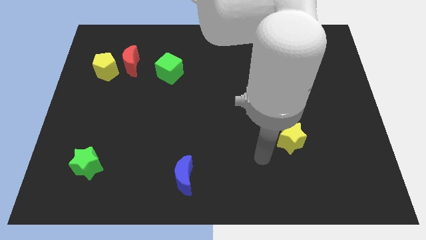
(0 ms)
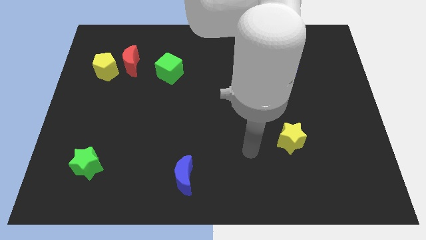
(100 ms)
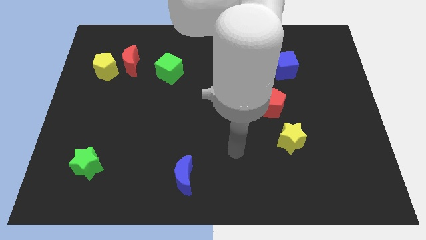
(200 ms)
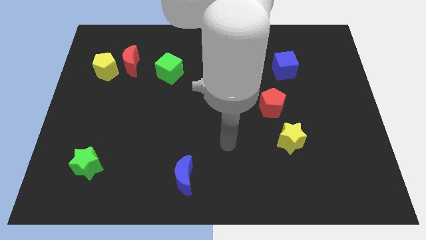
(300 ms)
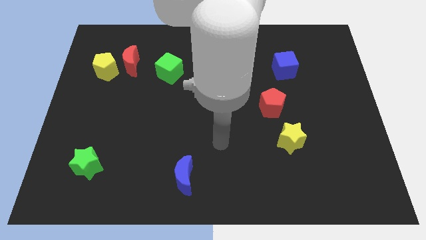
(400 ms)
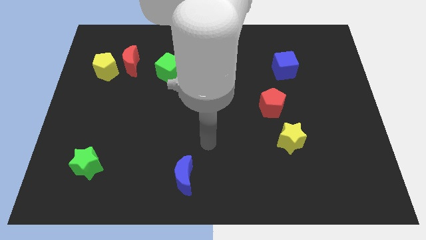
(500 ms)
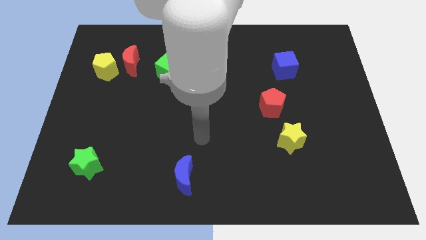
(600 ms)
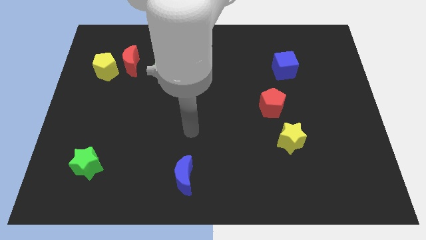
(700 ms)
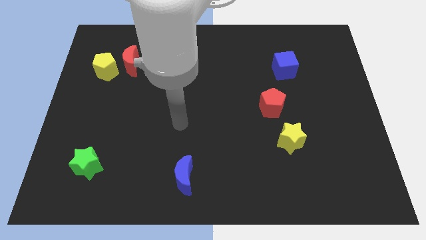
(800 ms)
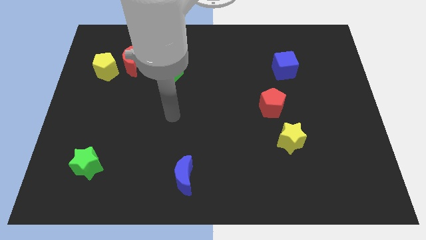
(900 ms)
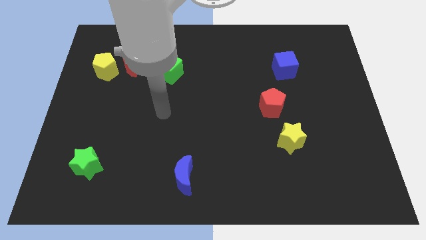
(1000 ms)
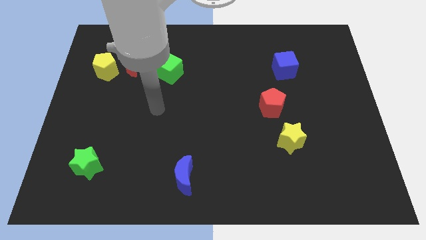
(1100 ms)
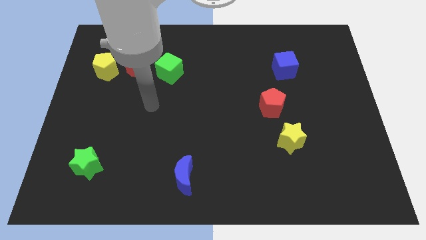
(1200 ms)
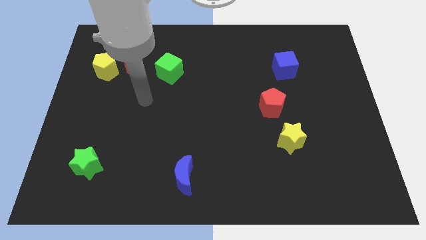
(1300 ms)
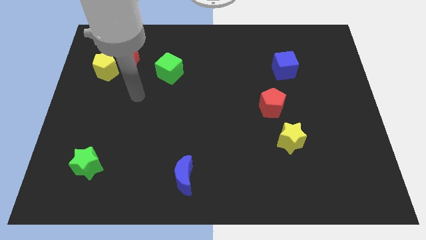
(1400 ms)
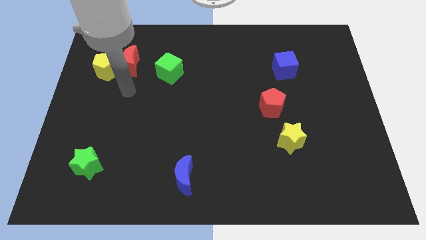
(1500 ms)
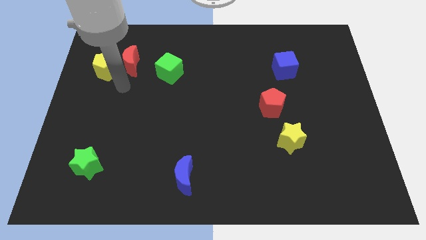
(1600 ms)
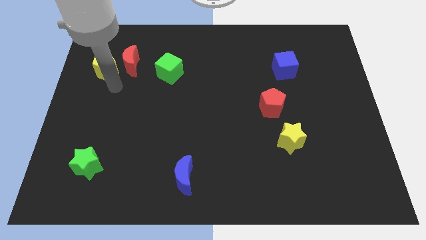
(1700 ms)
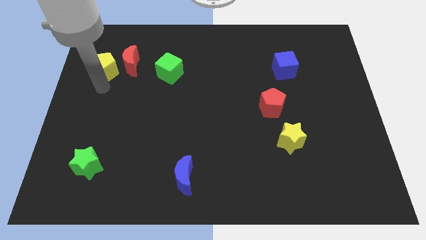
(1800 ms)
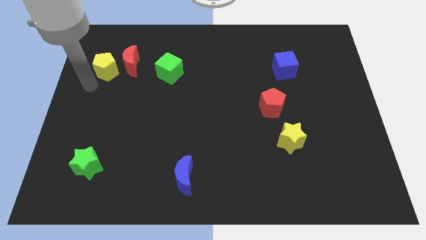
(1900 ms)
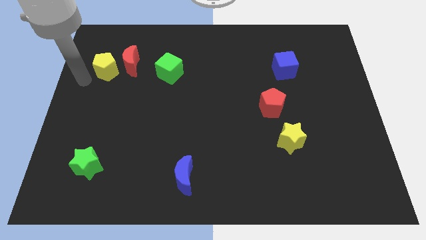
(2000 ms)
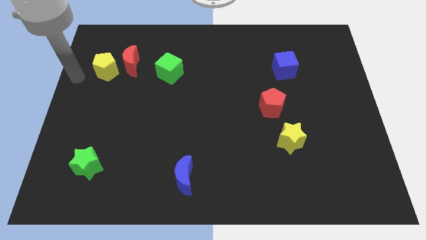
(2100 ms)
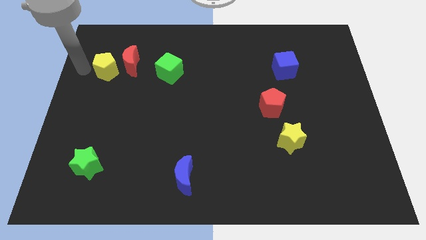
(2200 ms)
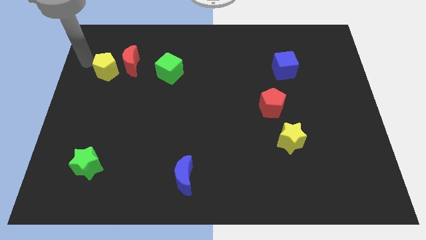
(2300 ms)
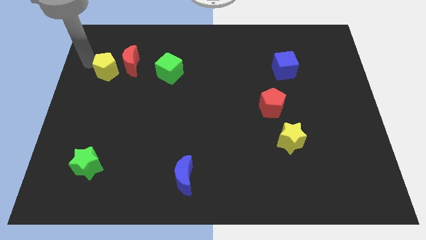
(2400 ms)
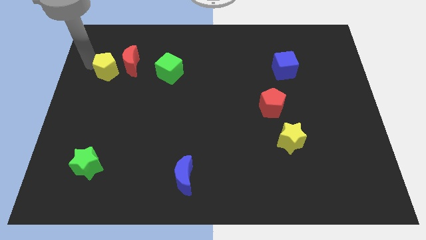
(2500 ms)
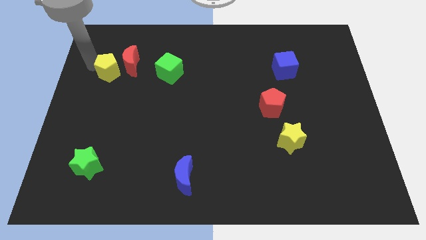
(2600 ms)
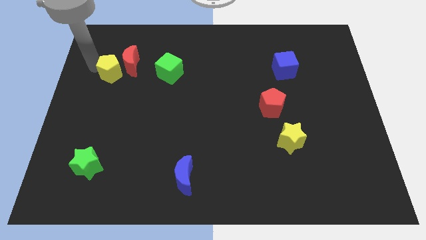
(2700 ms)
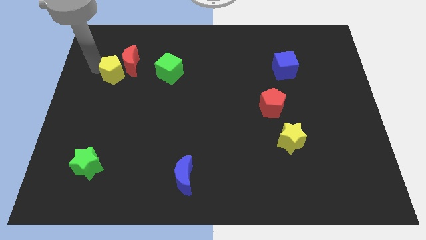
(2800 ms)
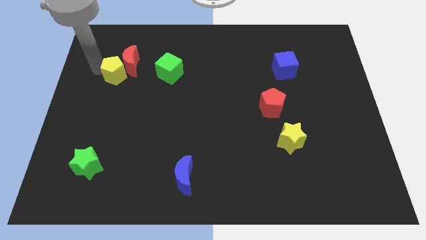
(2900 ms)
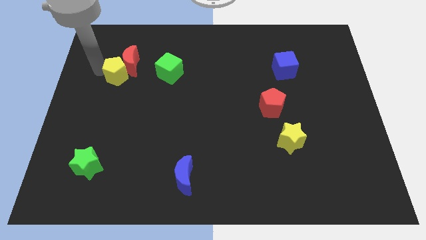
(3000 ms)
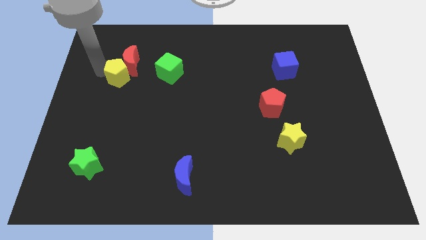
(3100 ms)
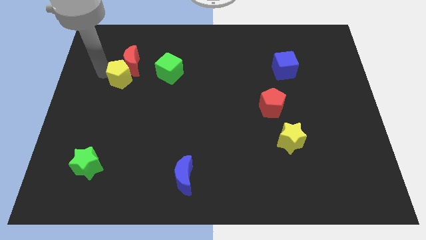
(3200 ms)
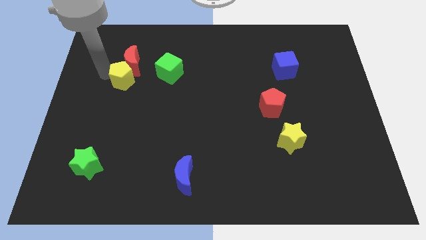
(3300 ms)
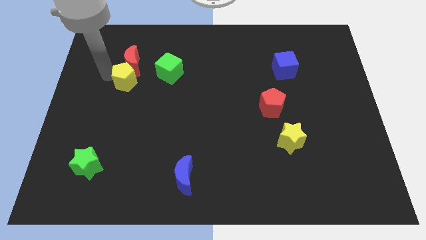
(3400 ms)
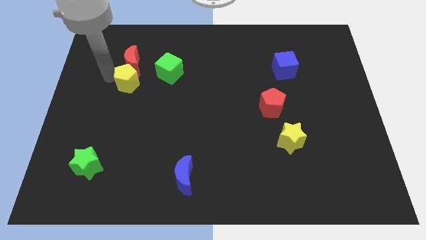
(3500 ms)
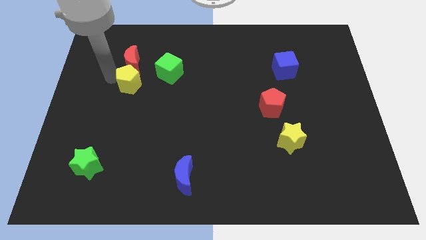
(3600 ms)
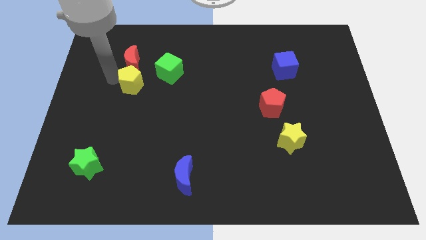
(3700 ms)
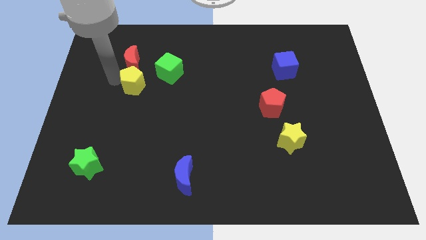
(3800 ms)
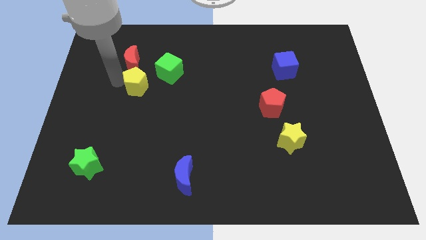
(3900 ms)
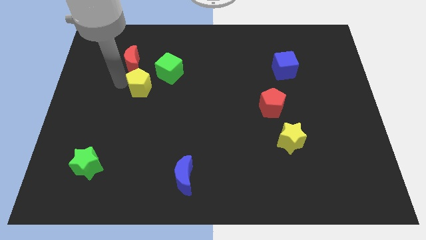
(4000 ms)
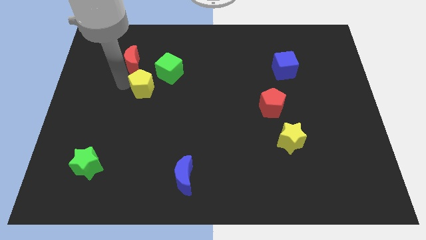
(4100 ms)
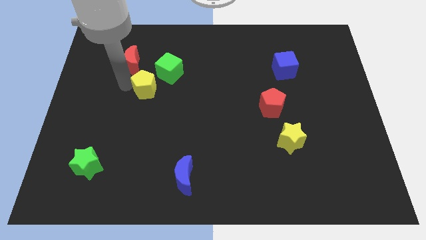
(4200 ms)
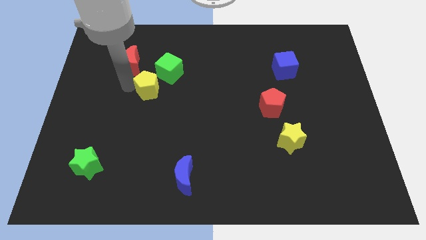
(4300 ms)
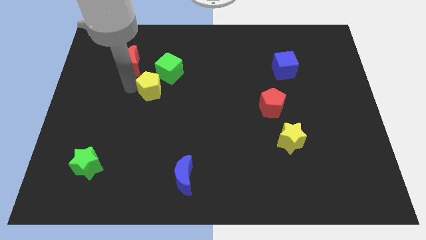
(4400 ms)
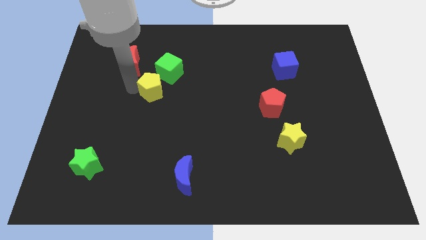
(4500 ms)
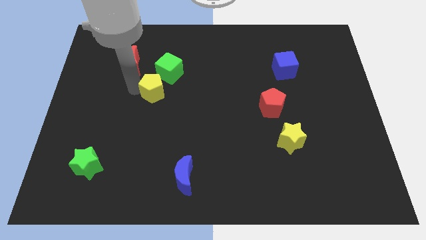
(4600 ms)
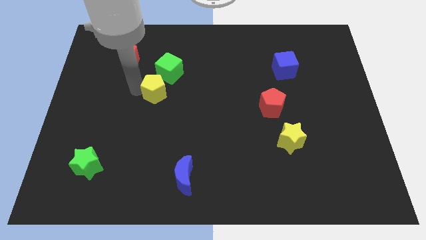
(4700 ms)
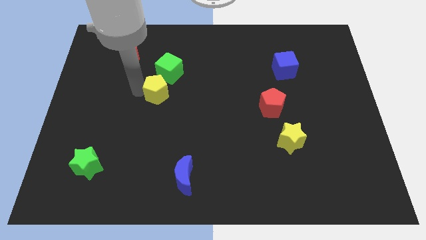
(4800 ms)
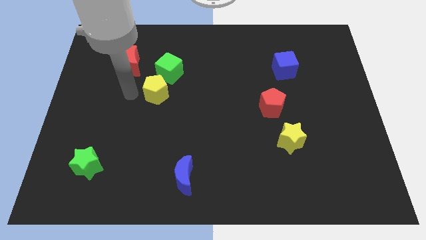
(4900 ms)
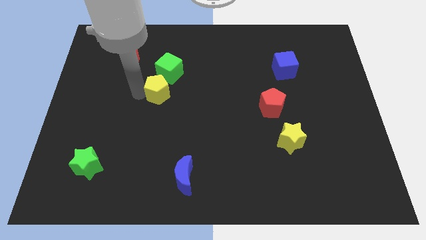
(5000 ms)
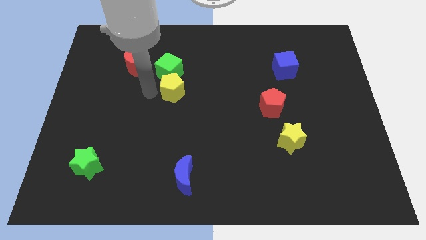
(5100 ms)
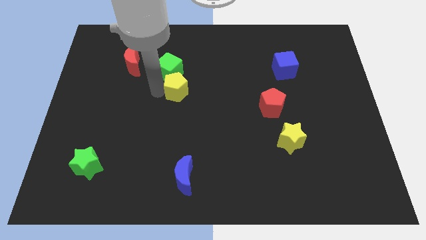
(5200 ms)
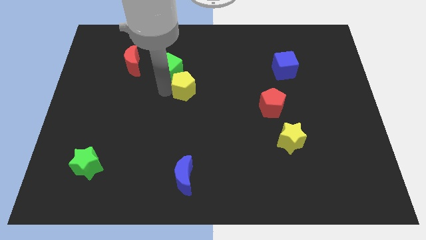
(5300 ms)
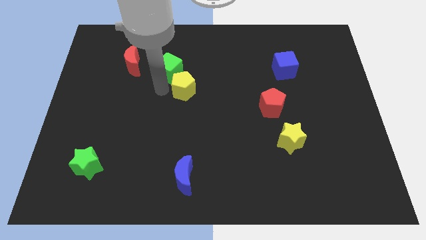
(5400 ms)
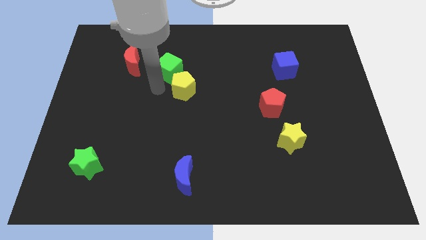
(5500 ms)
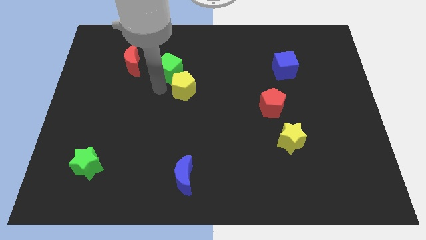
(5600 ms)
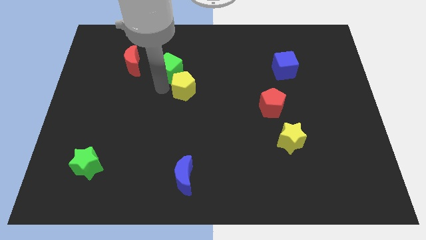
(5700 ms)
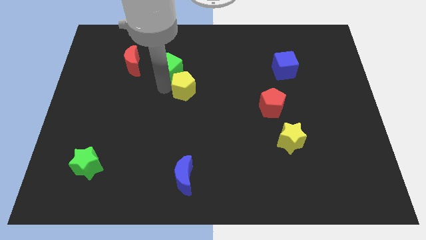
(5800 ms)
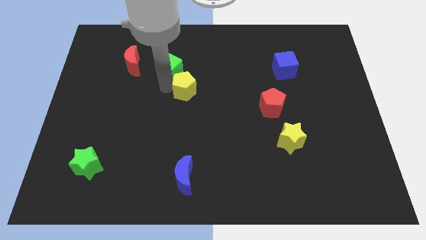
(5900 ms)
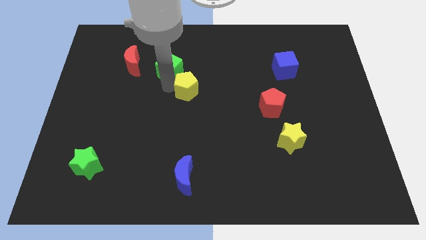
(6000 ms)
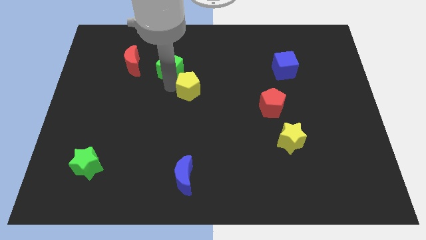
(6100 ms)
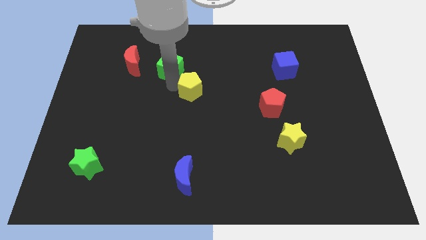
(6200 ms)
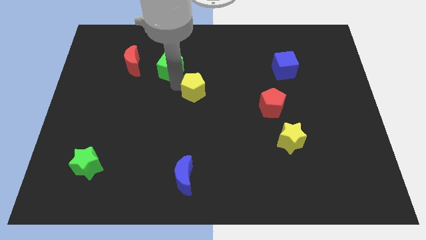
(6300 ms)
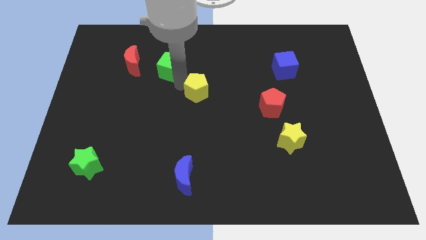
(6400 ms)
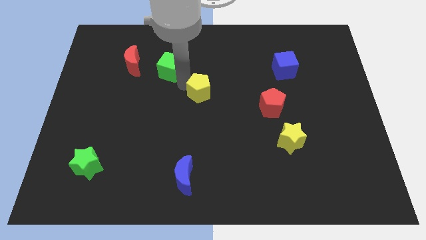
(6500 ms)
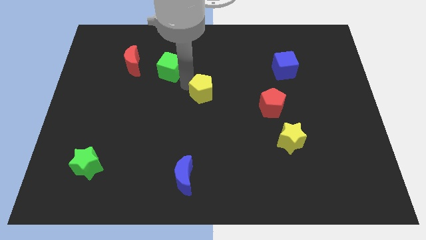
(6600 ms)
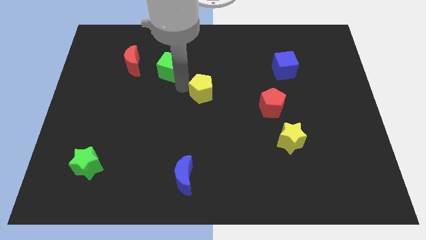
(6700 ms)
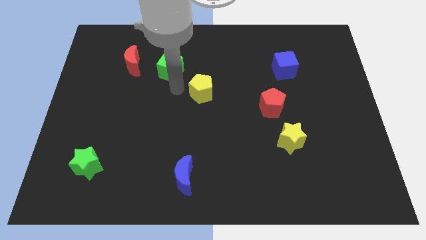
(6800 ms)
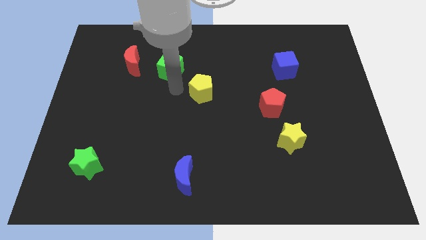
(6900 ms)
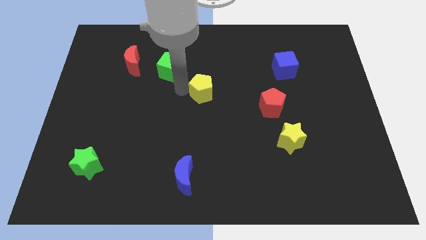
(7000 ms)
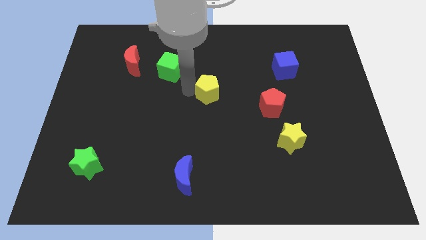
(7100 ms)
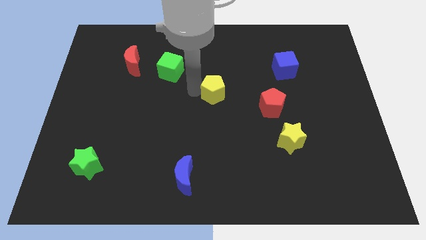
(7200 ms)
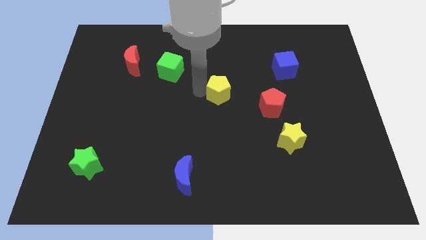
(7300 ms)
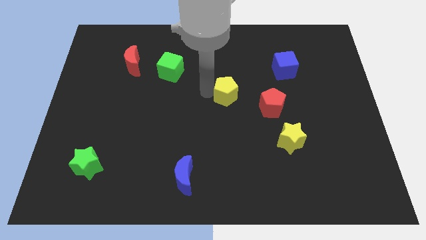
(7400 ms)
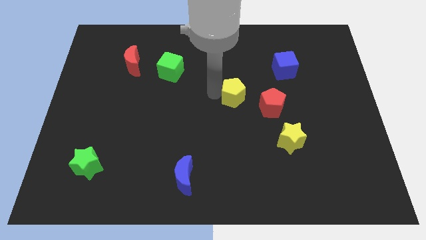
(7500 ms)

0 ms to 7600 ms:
put the yellow pentagon to the top left side of the red pentagon
